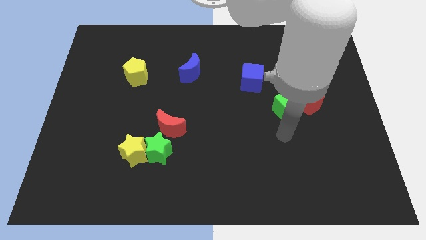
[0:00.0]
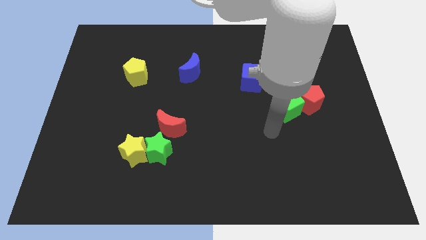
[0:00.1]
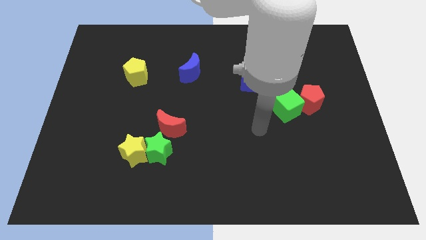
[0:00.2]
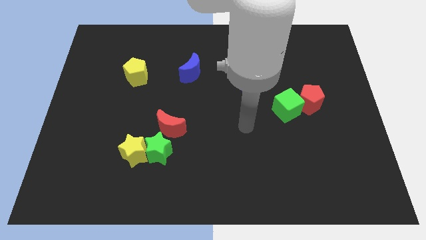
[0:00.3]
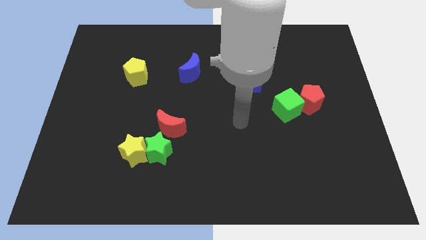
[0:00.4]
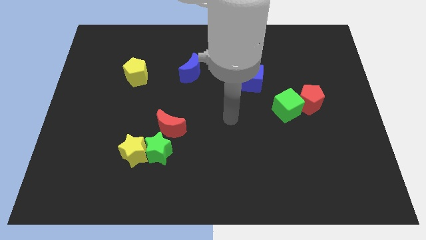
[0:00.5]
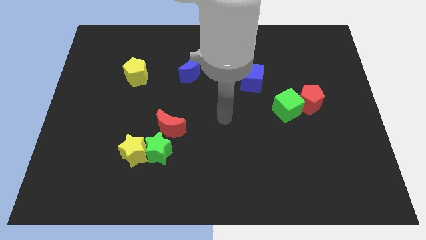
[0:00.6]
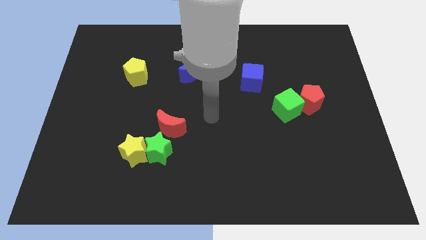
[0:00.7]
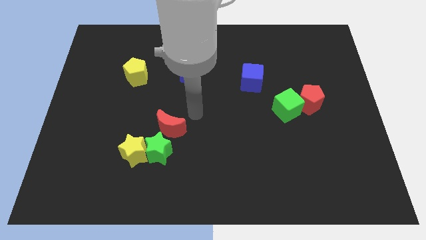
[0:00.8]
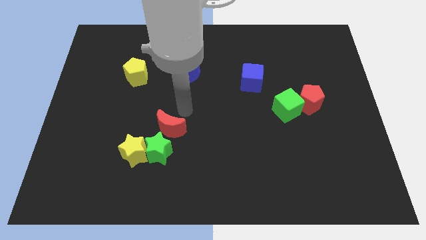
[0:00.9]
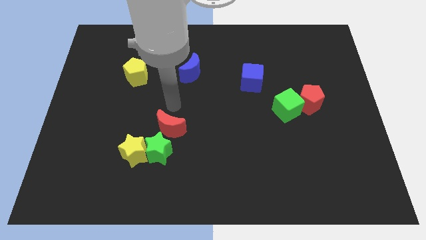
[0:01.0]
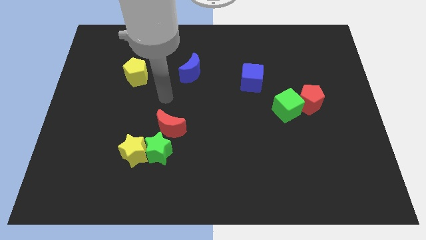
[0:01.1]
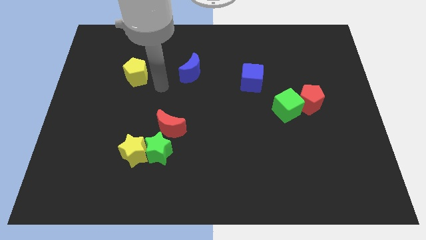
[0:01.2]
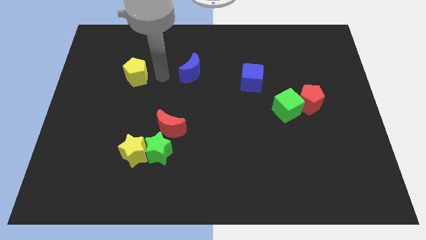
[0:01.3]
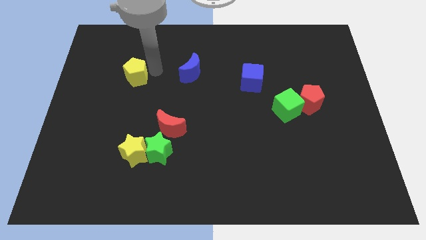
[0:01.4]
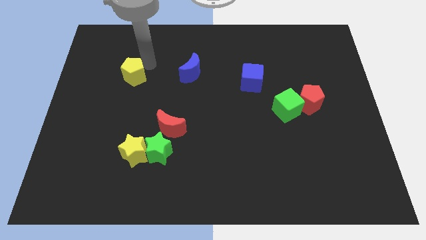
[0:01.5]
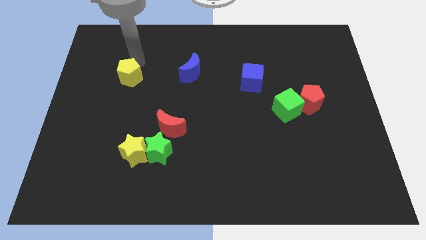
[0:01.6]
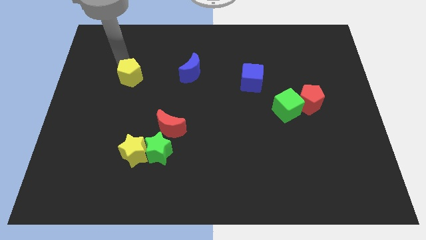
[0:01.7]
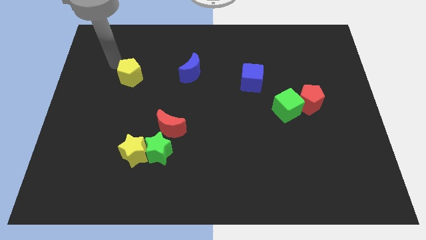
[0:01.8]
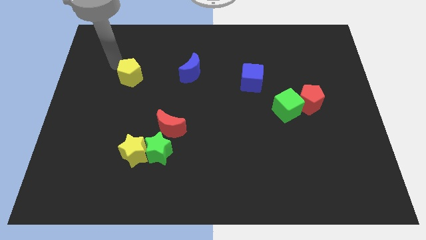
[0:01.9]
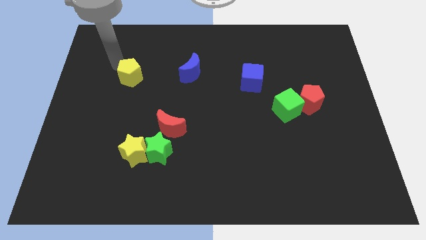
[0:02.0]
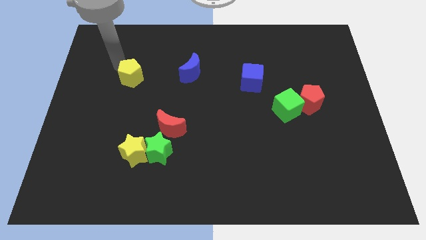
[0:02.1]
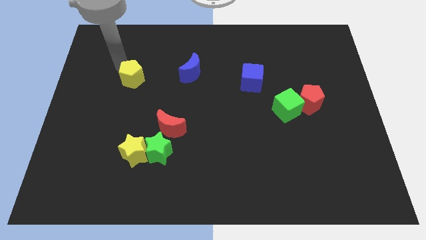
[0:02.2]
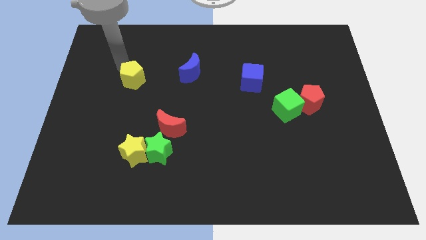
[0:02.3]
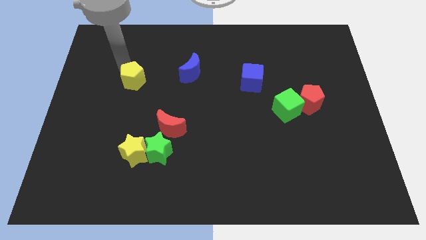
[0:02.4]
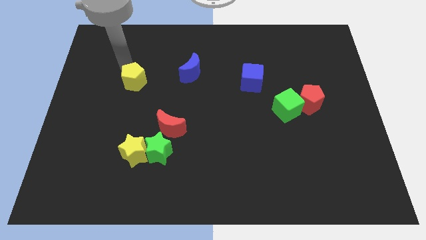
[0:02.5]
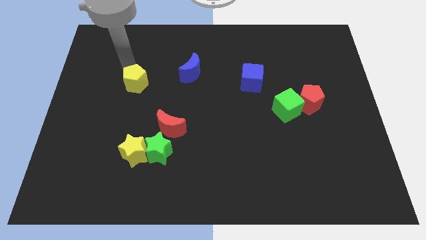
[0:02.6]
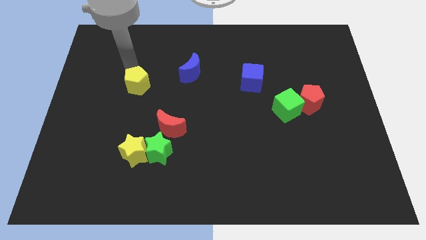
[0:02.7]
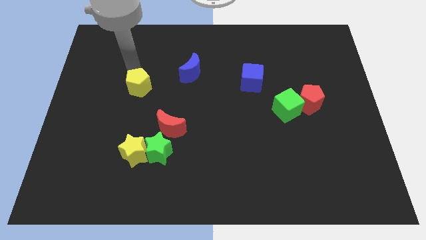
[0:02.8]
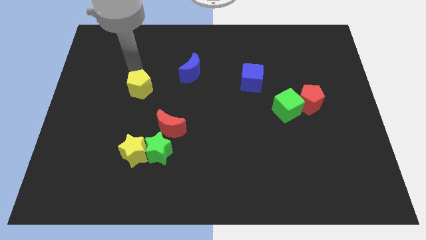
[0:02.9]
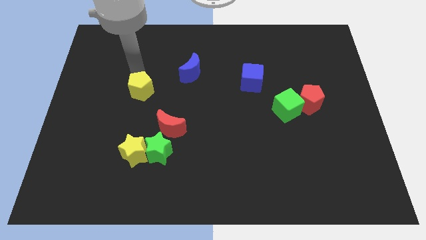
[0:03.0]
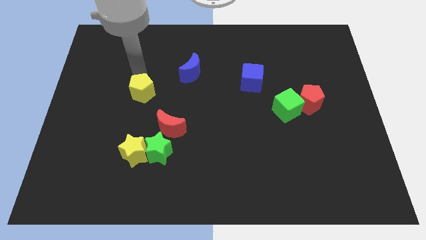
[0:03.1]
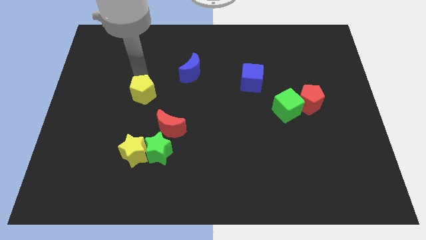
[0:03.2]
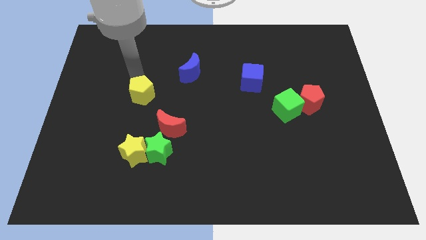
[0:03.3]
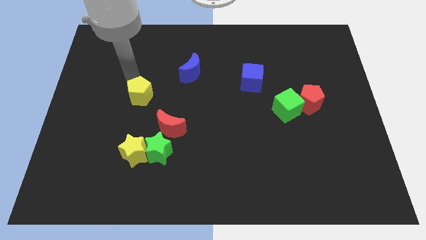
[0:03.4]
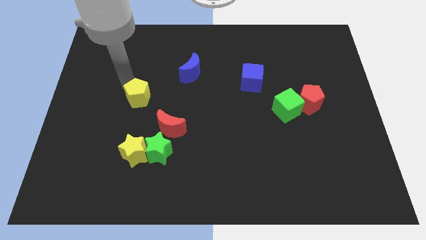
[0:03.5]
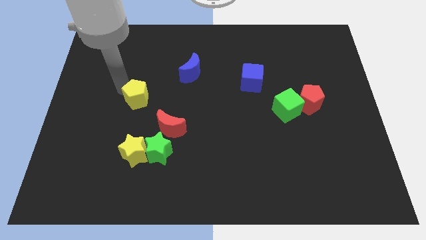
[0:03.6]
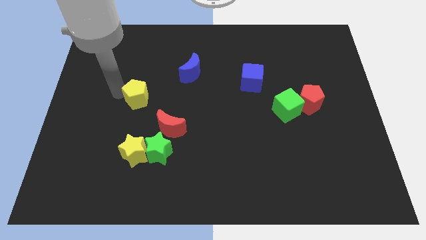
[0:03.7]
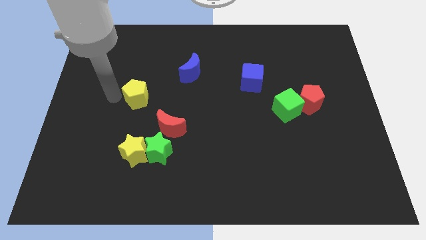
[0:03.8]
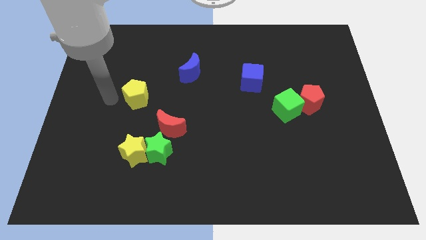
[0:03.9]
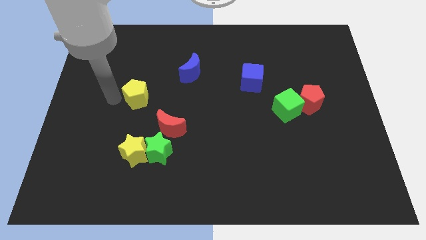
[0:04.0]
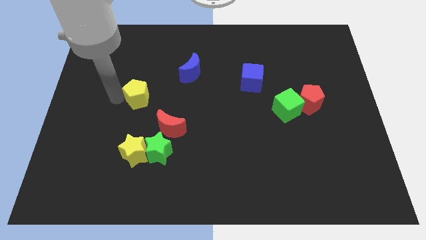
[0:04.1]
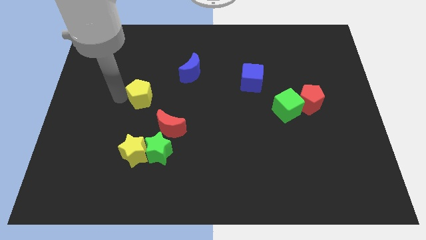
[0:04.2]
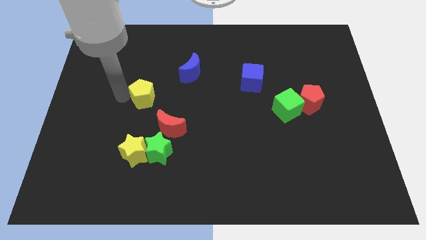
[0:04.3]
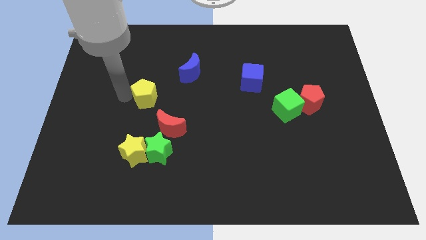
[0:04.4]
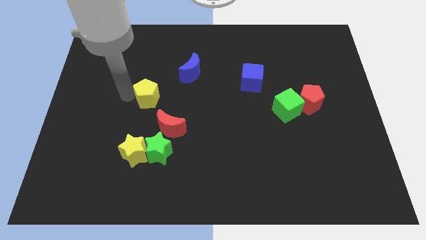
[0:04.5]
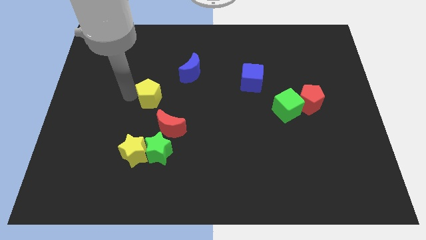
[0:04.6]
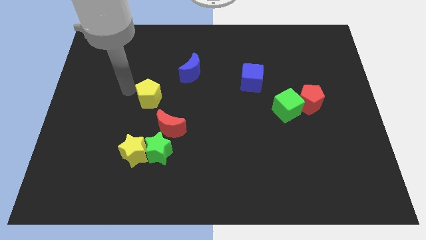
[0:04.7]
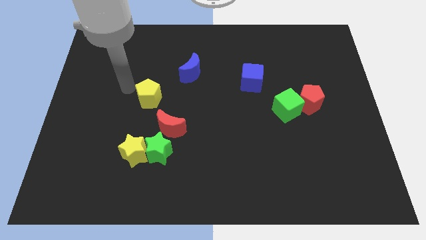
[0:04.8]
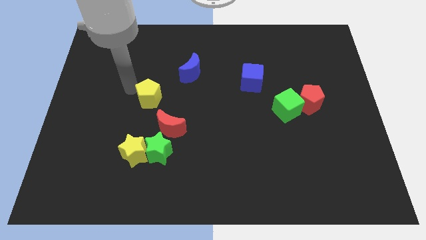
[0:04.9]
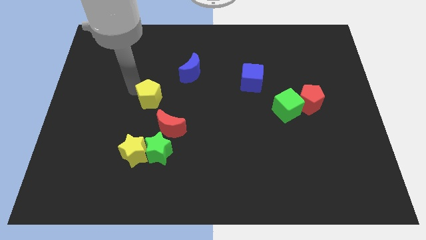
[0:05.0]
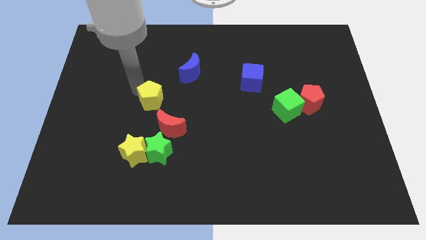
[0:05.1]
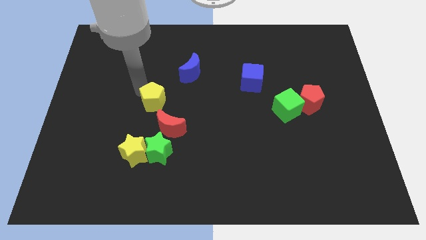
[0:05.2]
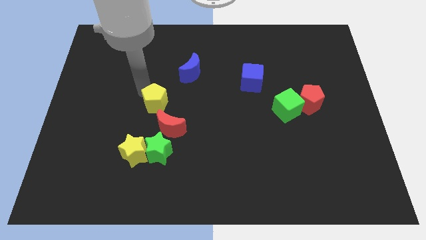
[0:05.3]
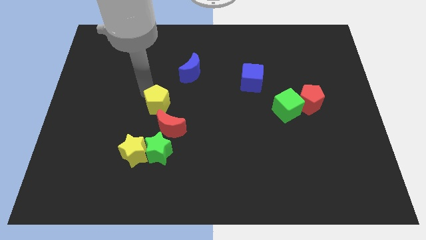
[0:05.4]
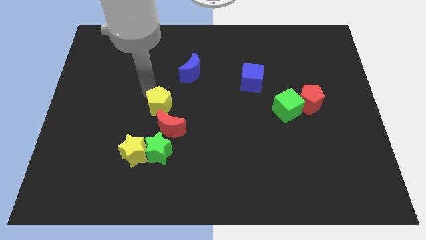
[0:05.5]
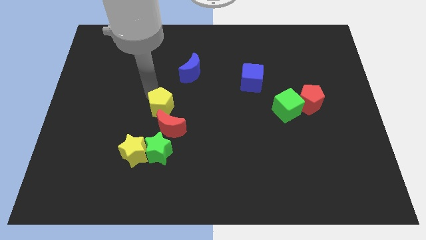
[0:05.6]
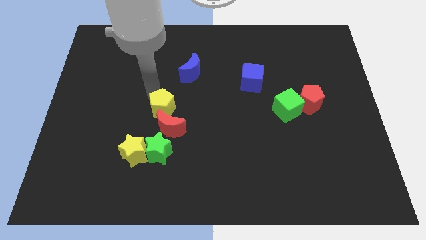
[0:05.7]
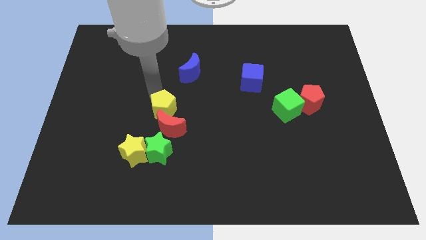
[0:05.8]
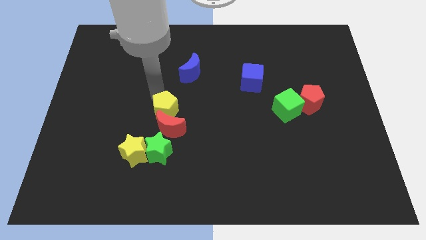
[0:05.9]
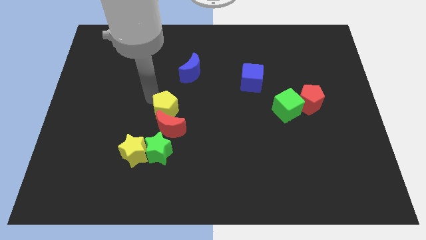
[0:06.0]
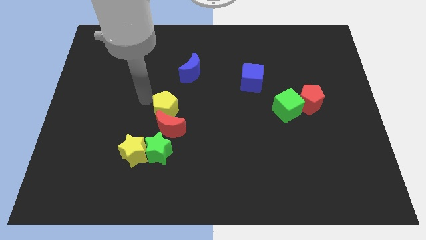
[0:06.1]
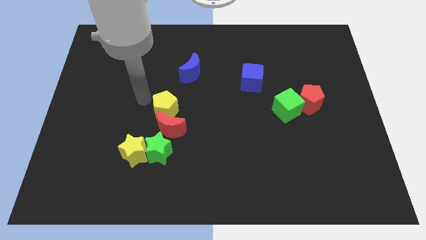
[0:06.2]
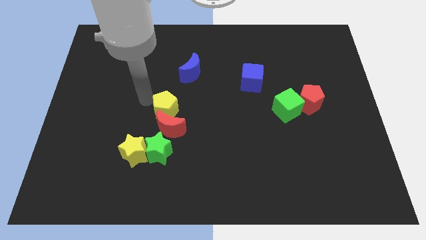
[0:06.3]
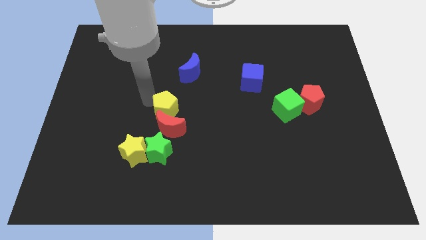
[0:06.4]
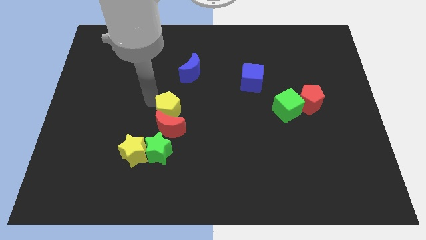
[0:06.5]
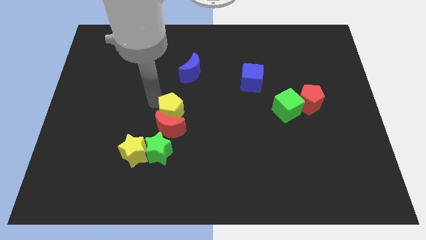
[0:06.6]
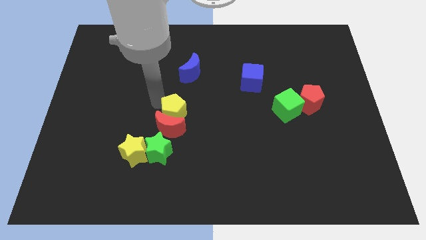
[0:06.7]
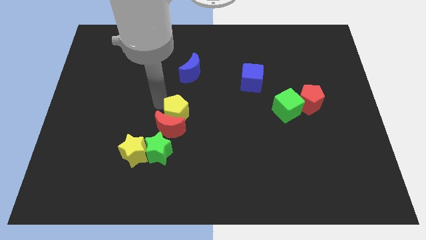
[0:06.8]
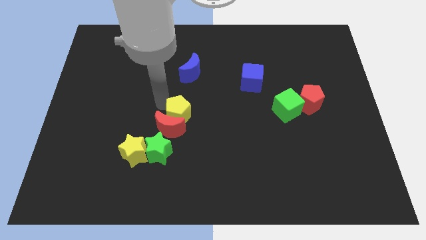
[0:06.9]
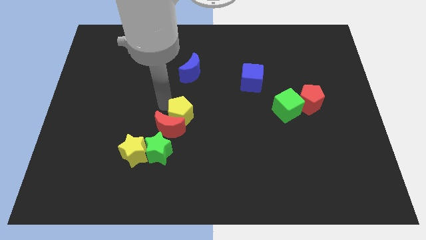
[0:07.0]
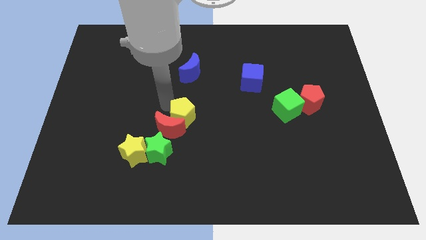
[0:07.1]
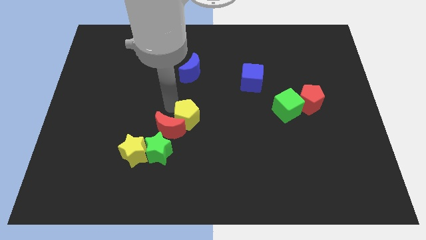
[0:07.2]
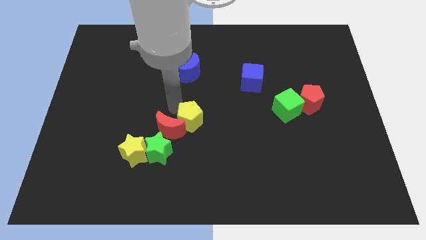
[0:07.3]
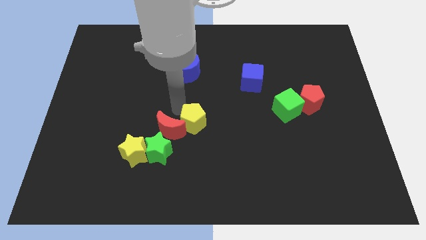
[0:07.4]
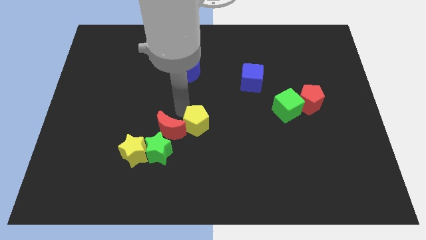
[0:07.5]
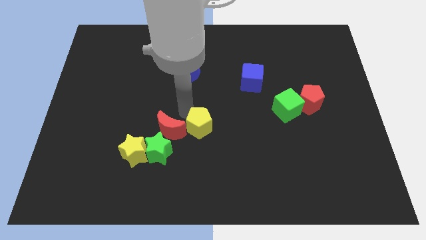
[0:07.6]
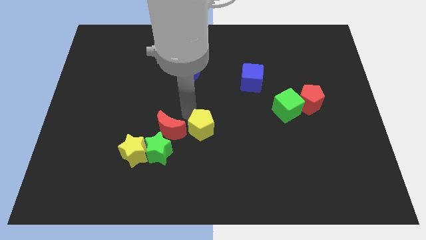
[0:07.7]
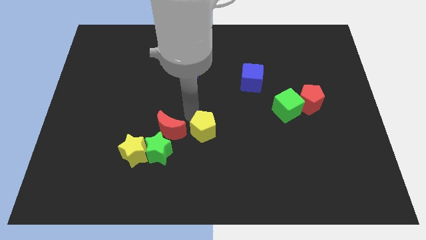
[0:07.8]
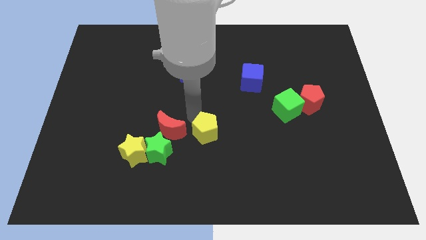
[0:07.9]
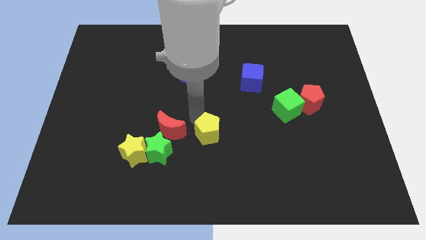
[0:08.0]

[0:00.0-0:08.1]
push the yellow pentagon right of the green star
